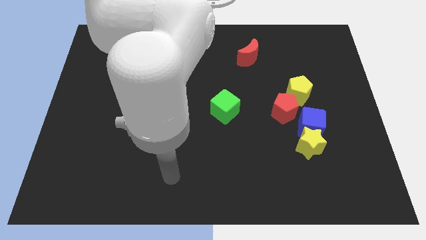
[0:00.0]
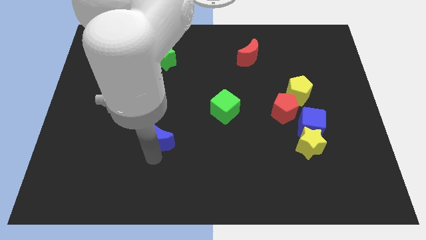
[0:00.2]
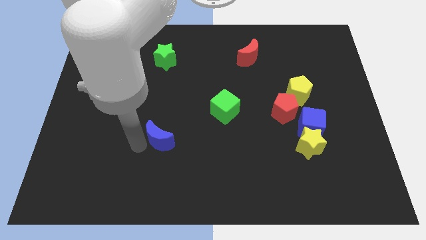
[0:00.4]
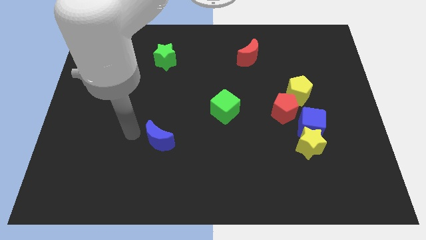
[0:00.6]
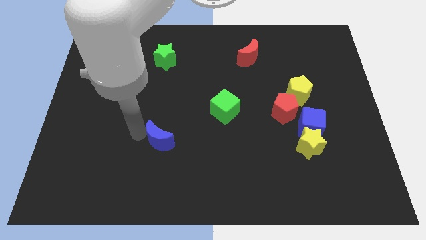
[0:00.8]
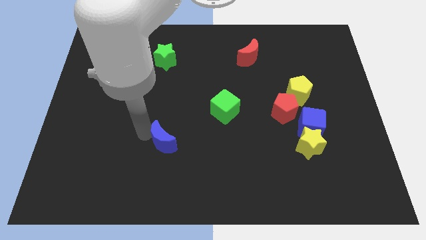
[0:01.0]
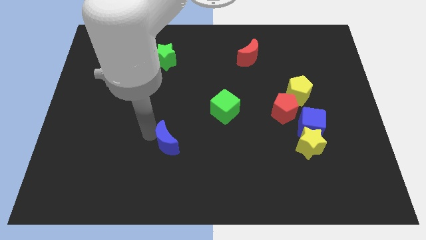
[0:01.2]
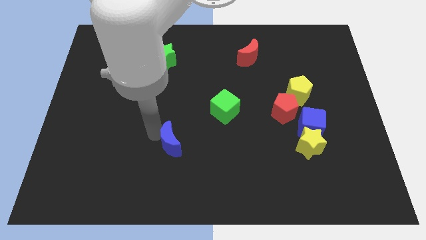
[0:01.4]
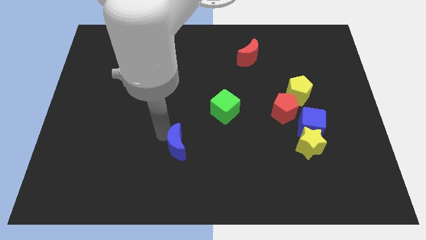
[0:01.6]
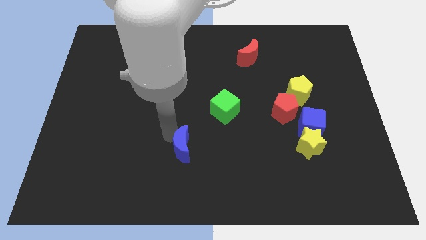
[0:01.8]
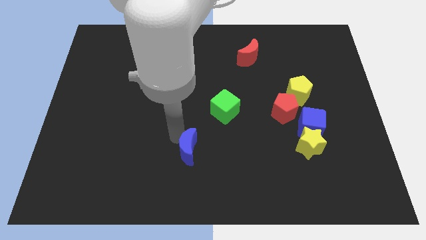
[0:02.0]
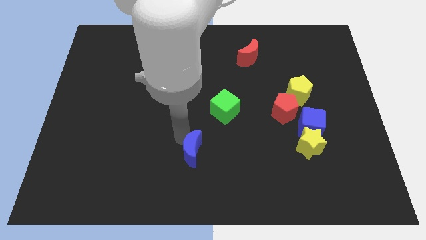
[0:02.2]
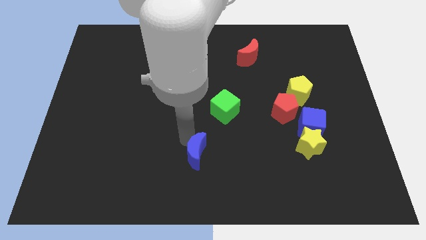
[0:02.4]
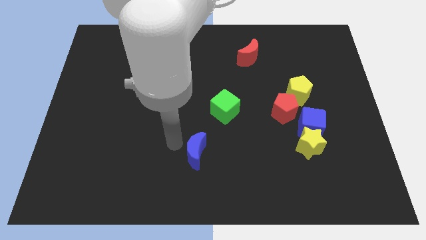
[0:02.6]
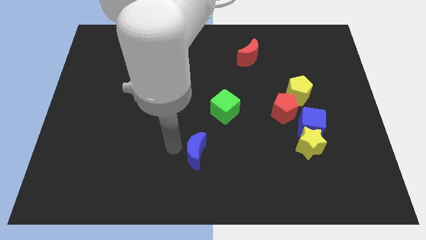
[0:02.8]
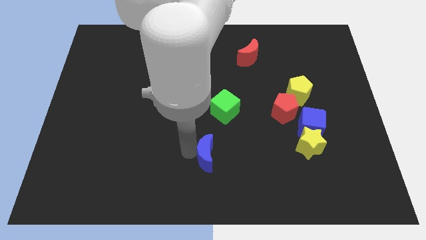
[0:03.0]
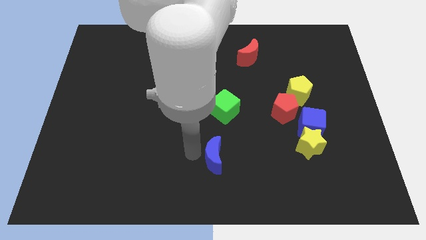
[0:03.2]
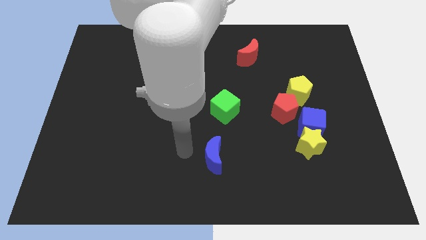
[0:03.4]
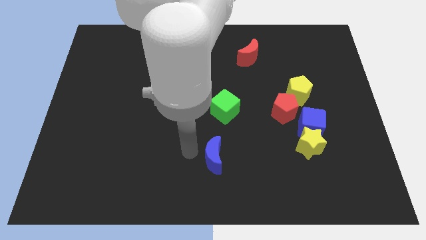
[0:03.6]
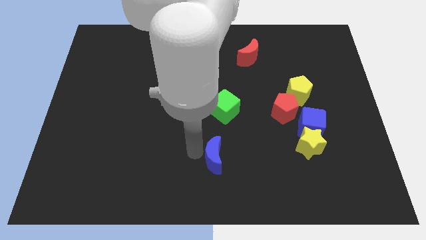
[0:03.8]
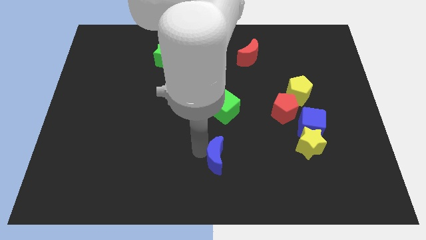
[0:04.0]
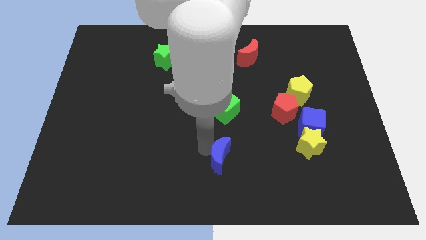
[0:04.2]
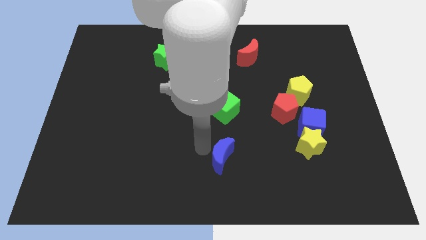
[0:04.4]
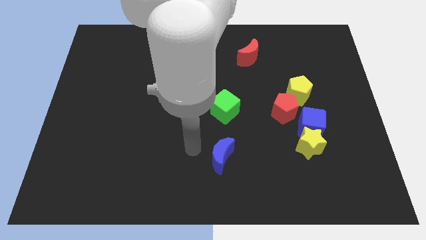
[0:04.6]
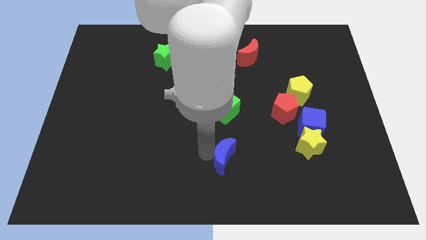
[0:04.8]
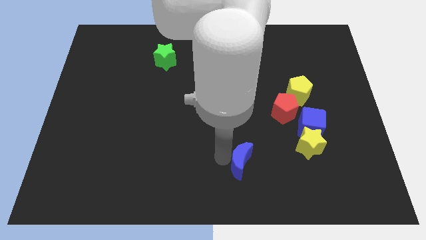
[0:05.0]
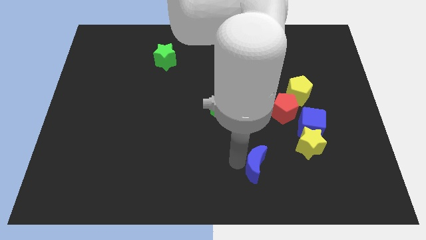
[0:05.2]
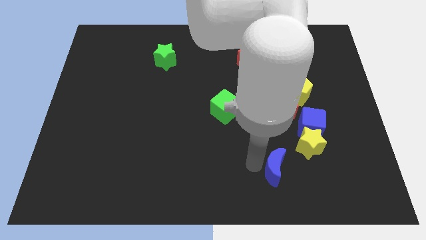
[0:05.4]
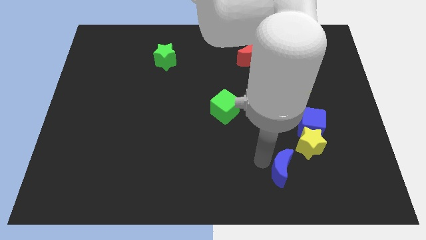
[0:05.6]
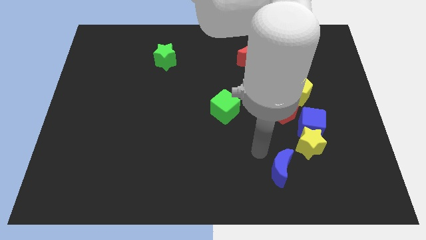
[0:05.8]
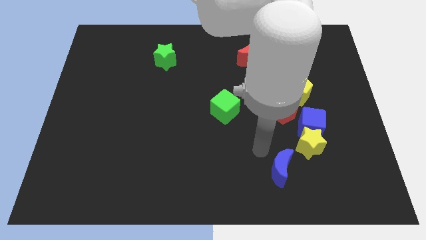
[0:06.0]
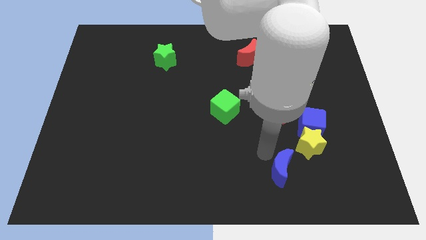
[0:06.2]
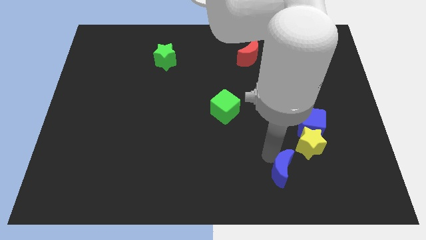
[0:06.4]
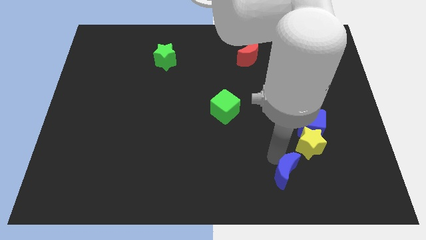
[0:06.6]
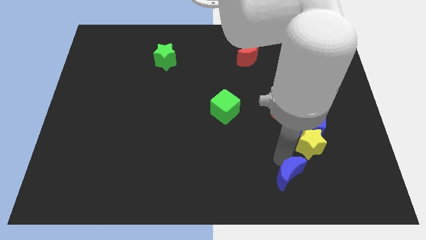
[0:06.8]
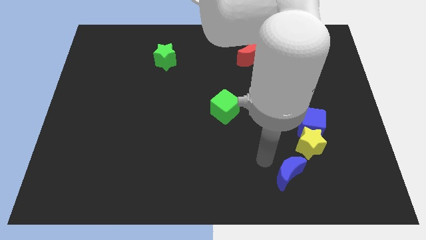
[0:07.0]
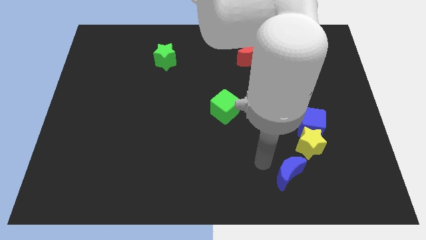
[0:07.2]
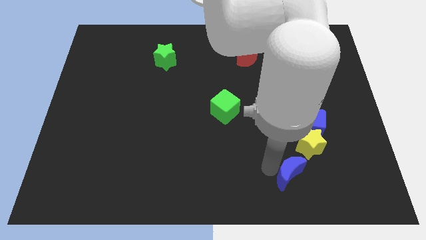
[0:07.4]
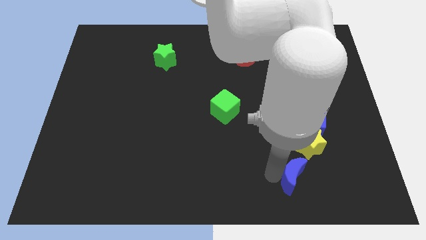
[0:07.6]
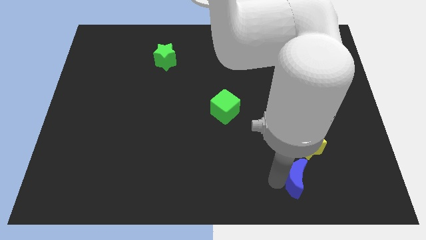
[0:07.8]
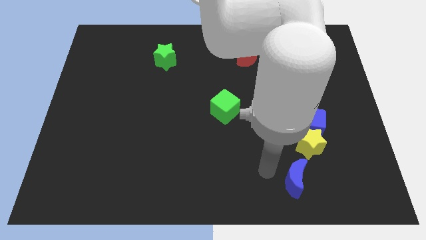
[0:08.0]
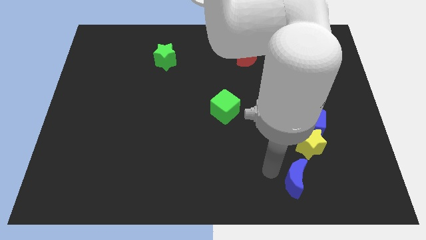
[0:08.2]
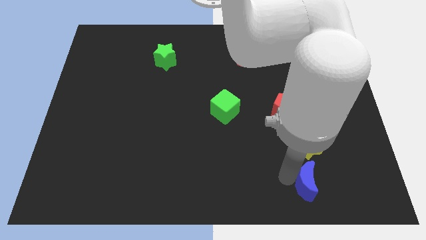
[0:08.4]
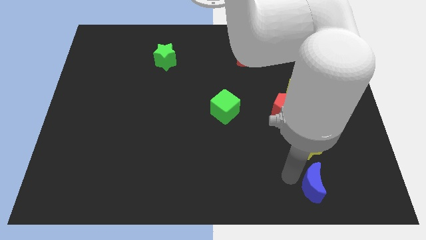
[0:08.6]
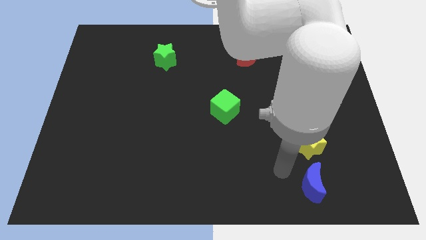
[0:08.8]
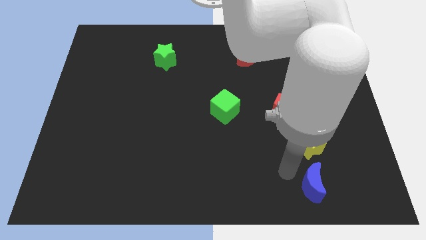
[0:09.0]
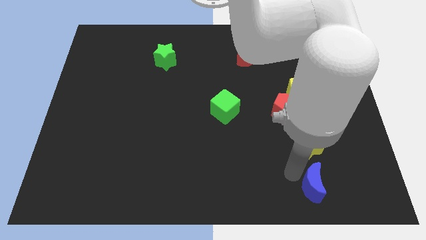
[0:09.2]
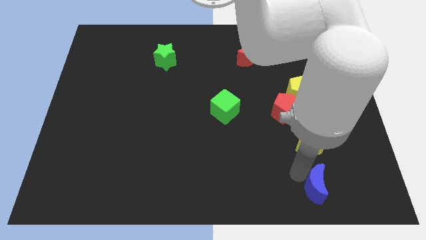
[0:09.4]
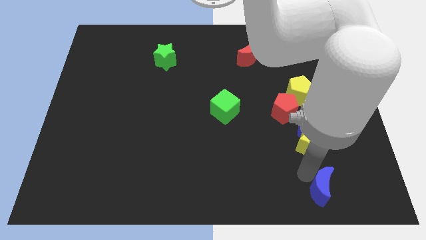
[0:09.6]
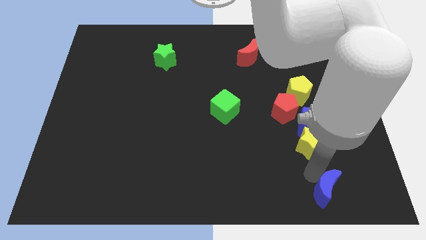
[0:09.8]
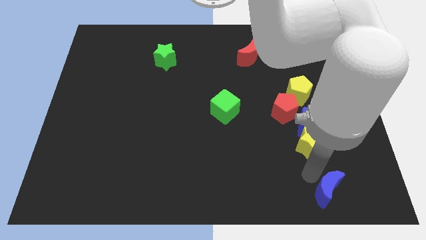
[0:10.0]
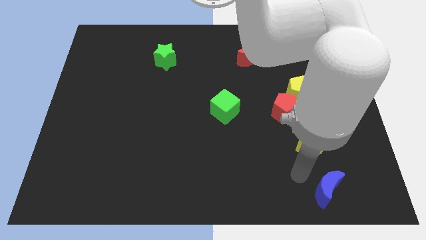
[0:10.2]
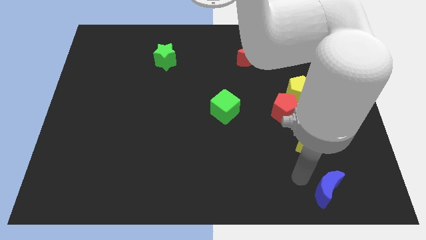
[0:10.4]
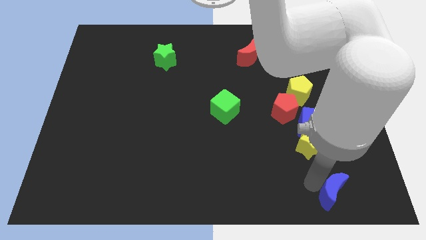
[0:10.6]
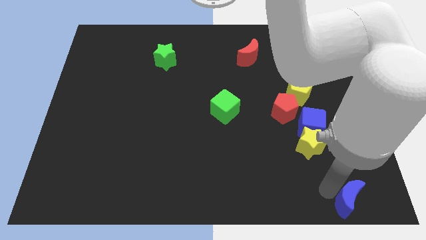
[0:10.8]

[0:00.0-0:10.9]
move the blue moon to the bottom right of the board

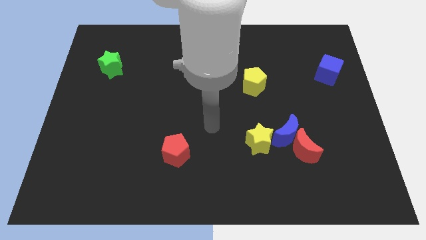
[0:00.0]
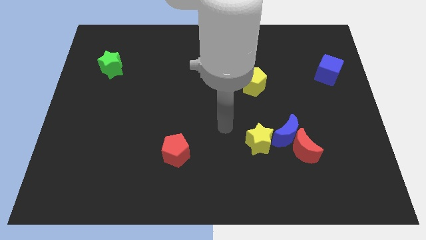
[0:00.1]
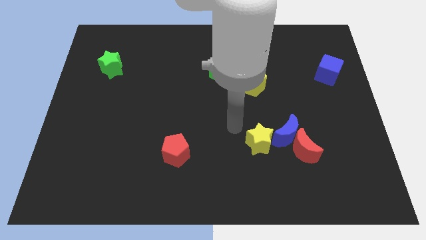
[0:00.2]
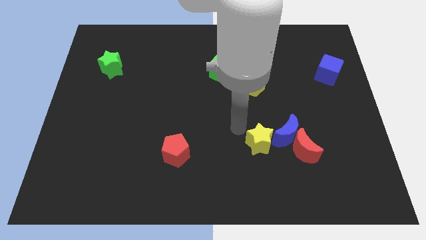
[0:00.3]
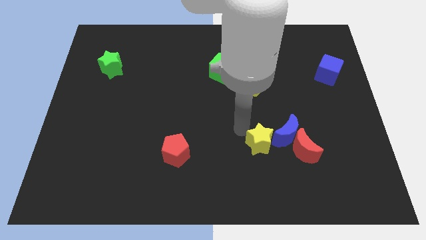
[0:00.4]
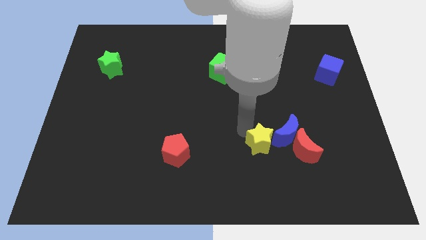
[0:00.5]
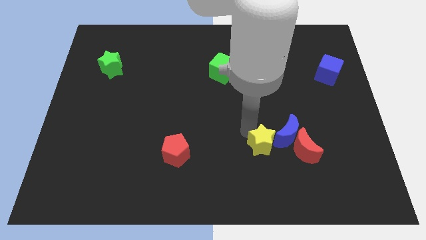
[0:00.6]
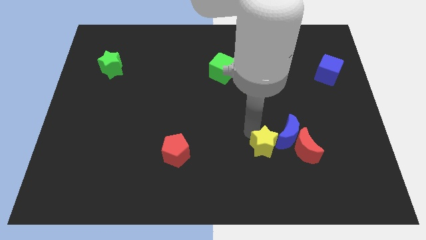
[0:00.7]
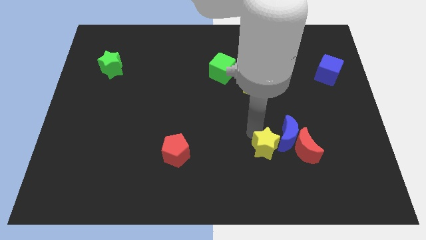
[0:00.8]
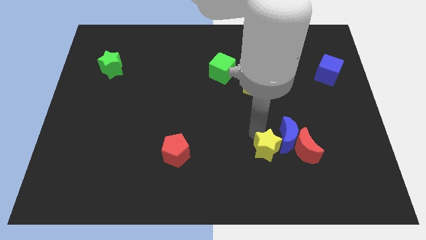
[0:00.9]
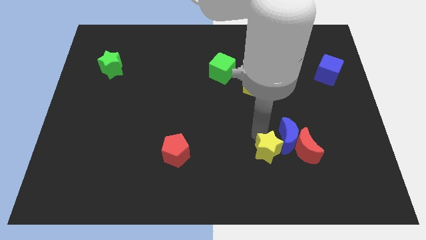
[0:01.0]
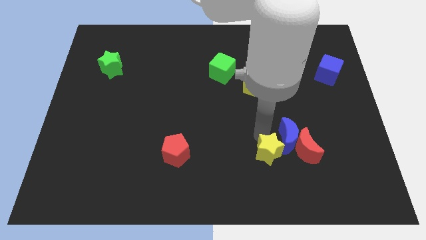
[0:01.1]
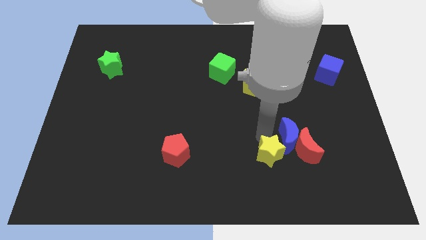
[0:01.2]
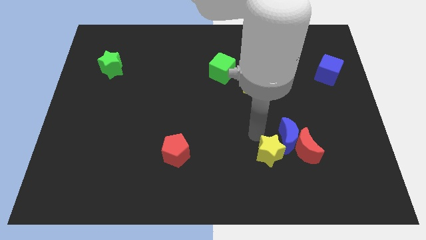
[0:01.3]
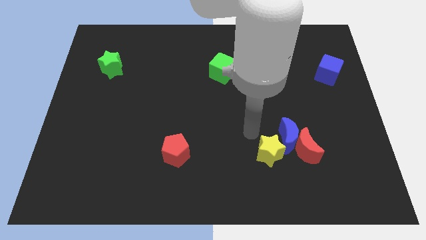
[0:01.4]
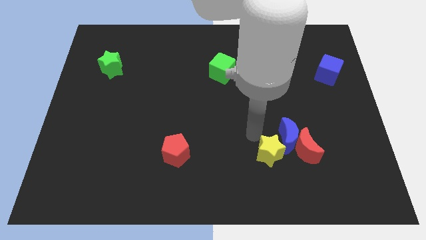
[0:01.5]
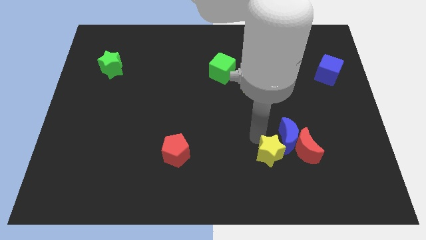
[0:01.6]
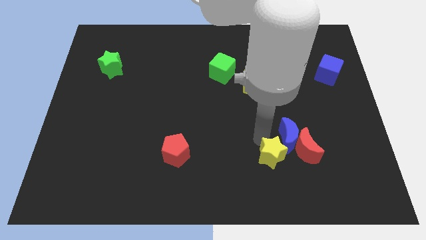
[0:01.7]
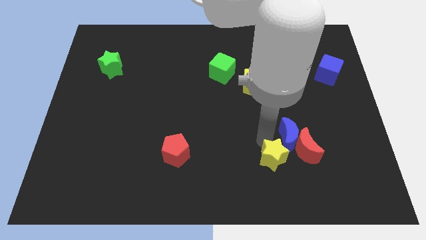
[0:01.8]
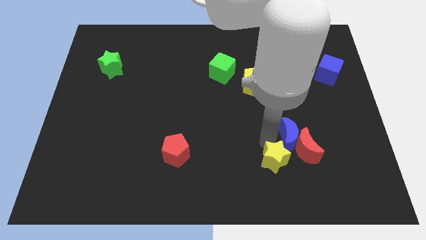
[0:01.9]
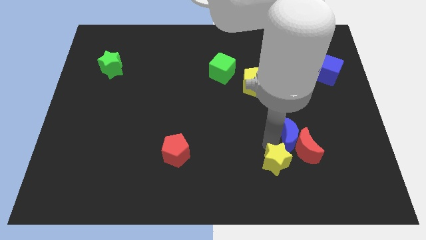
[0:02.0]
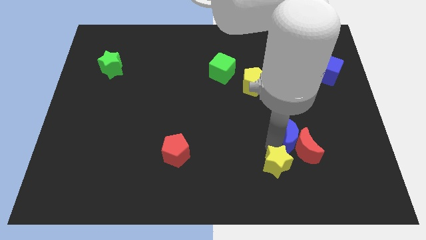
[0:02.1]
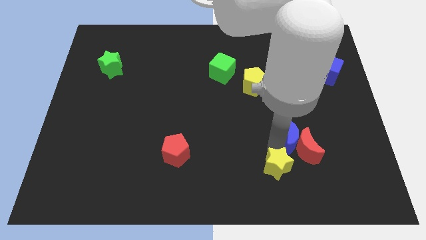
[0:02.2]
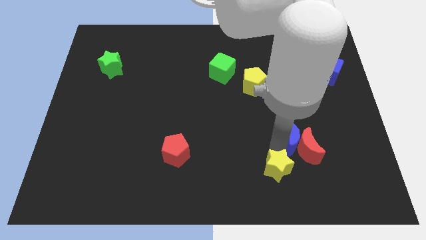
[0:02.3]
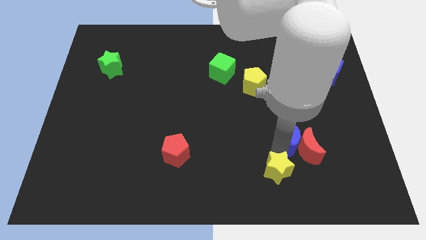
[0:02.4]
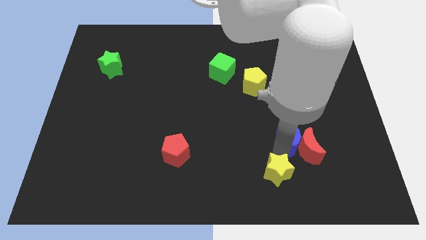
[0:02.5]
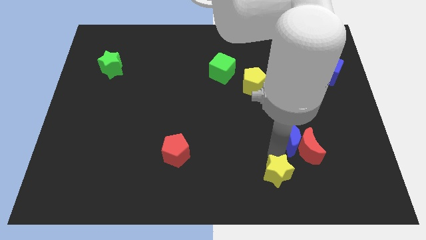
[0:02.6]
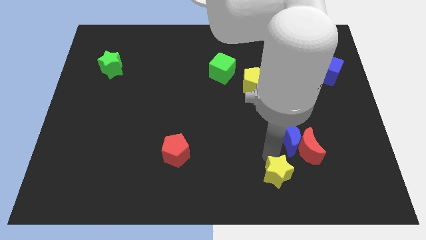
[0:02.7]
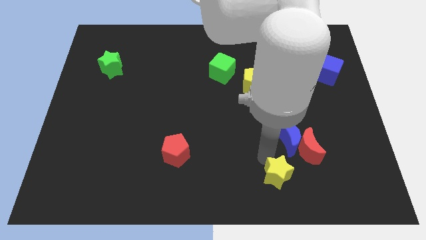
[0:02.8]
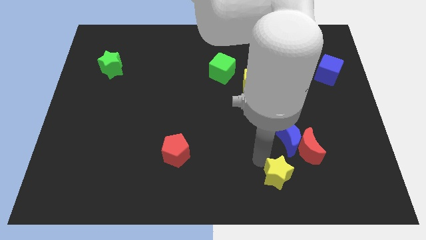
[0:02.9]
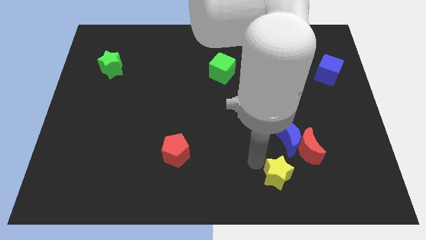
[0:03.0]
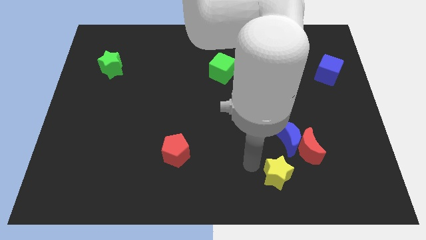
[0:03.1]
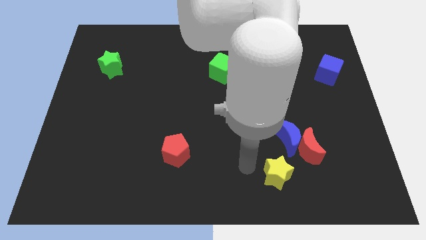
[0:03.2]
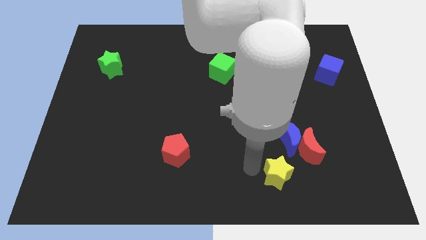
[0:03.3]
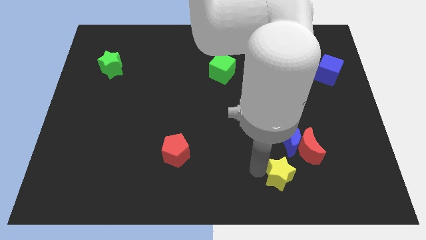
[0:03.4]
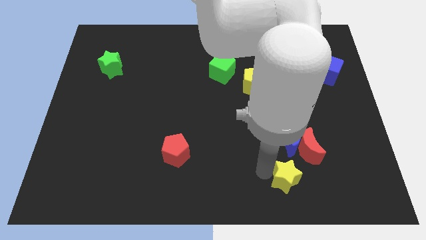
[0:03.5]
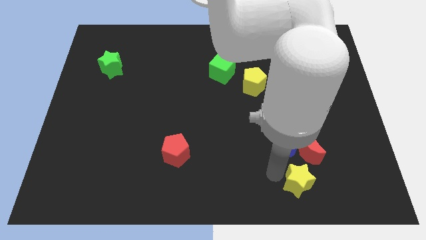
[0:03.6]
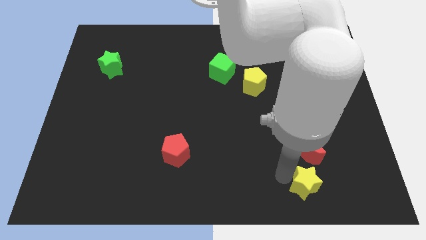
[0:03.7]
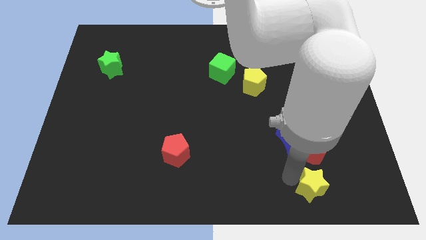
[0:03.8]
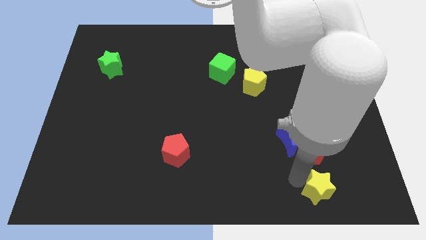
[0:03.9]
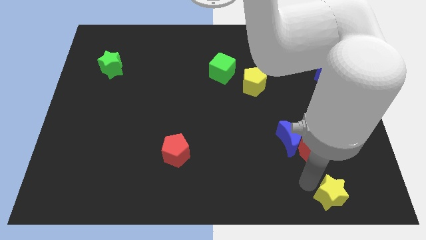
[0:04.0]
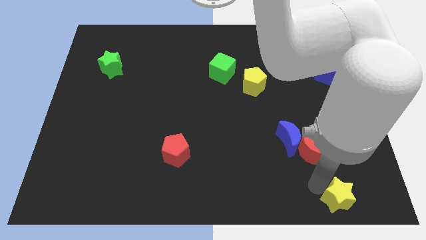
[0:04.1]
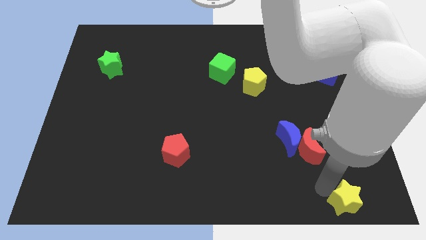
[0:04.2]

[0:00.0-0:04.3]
move the yellow star to the bottom right of the board
